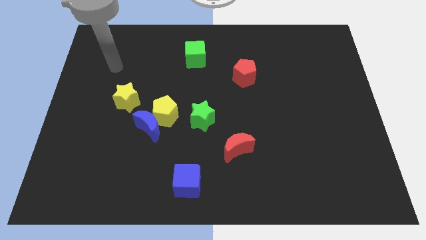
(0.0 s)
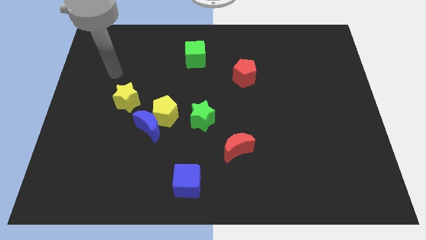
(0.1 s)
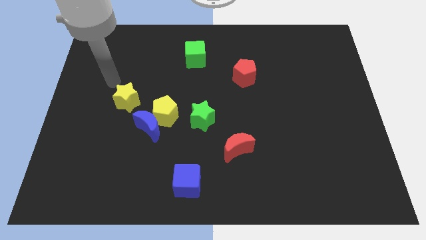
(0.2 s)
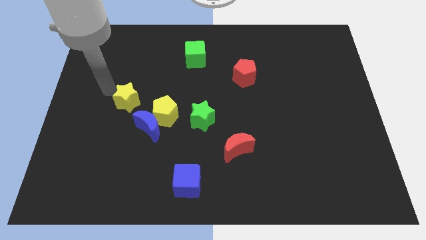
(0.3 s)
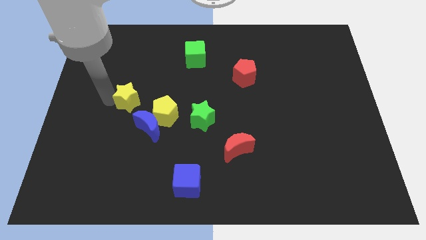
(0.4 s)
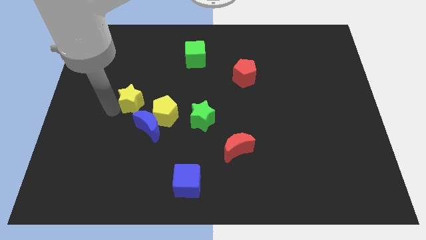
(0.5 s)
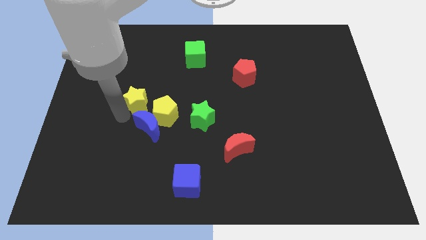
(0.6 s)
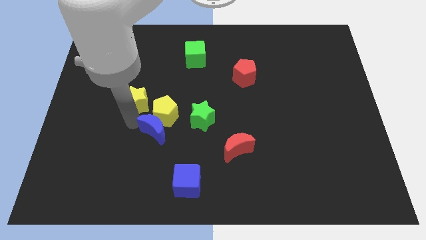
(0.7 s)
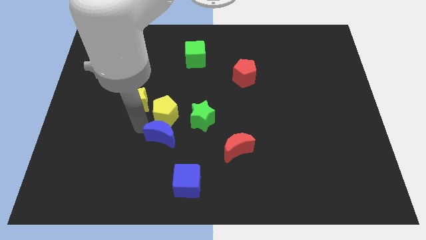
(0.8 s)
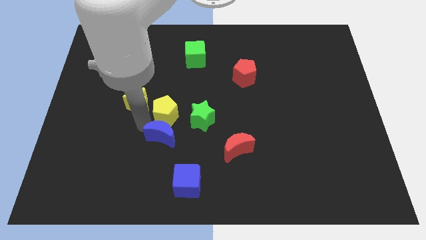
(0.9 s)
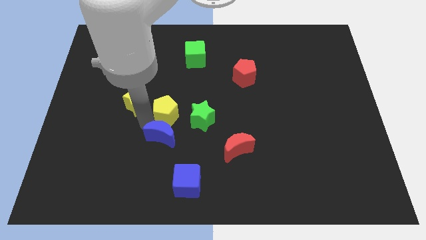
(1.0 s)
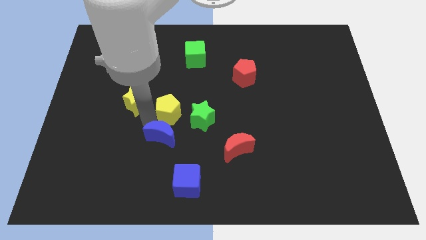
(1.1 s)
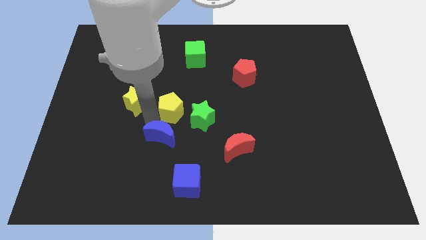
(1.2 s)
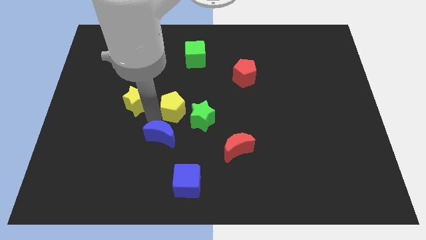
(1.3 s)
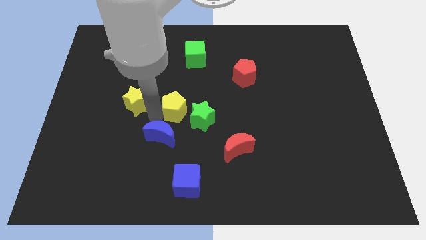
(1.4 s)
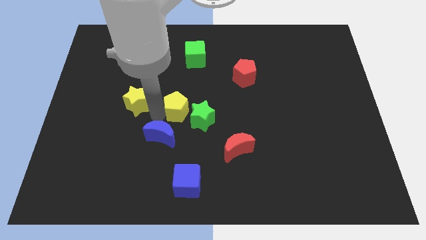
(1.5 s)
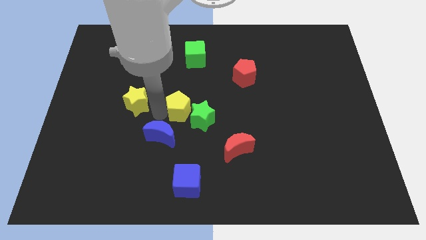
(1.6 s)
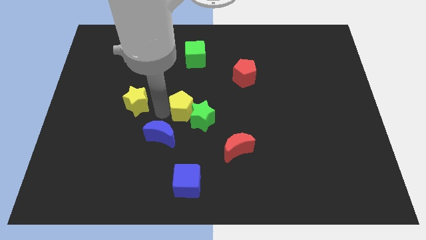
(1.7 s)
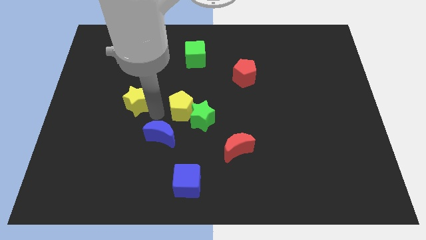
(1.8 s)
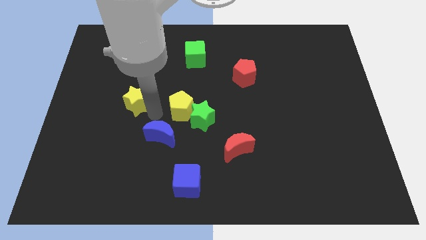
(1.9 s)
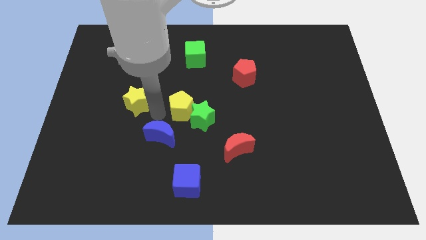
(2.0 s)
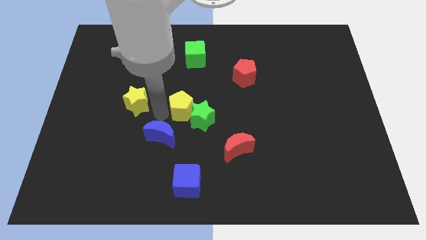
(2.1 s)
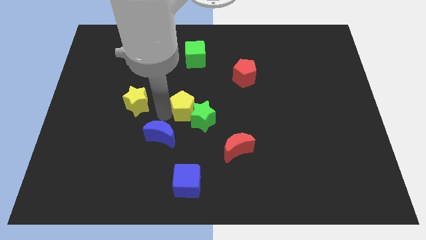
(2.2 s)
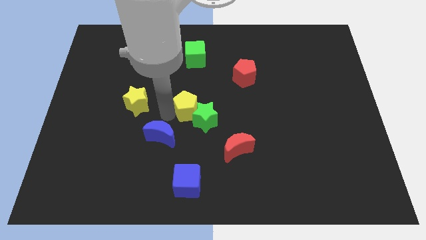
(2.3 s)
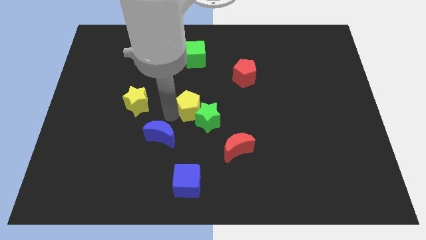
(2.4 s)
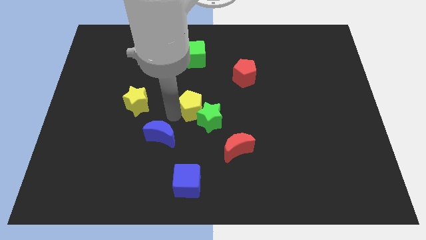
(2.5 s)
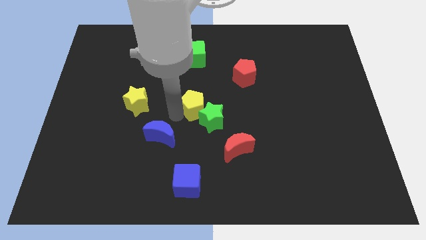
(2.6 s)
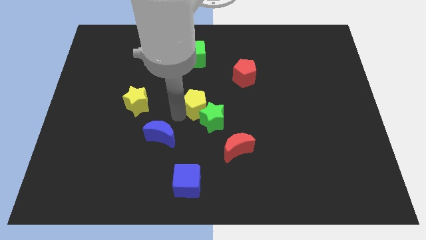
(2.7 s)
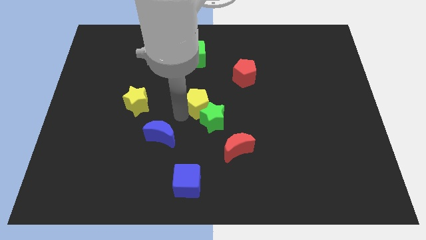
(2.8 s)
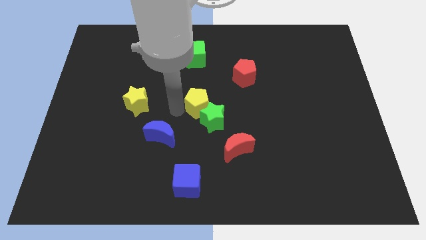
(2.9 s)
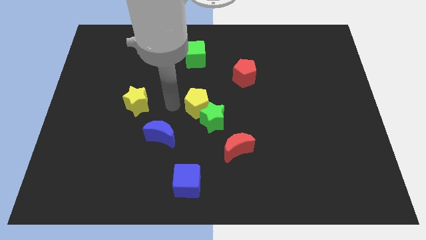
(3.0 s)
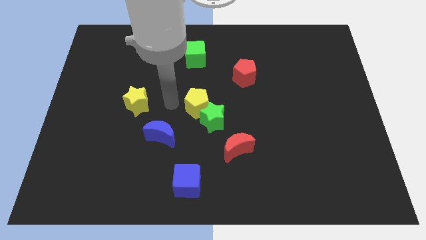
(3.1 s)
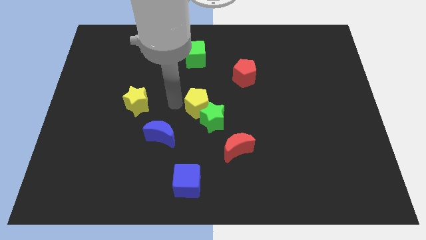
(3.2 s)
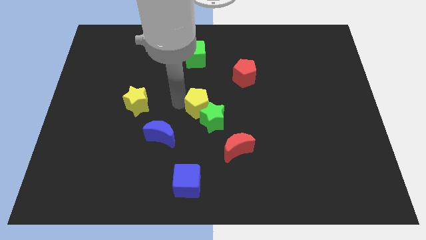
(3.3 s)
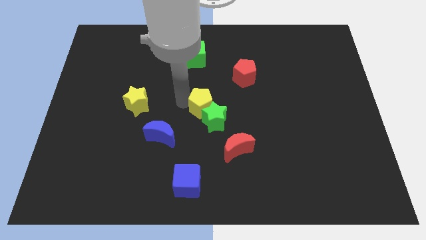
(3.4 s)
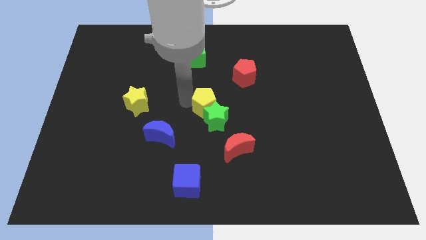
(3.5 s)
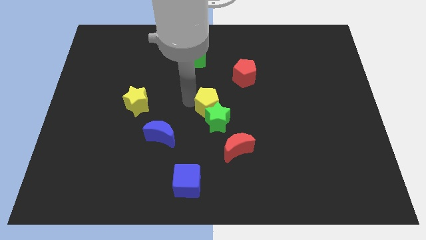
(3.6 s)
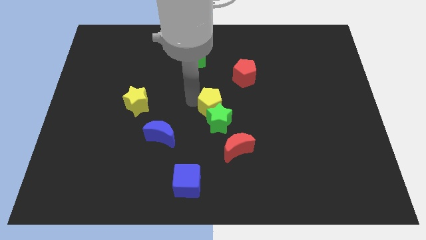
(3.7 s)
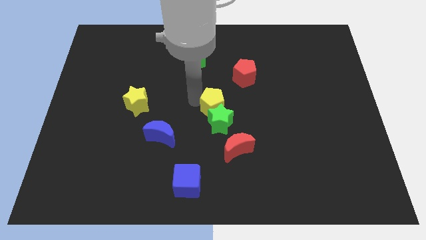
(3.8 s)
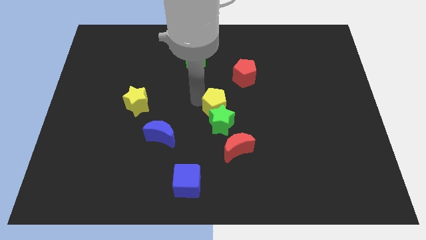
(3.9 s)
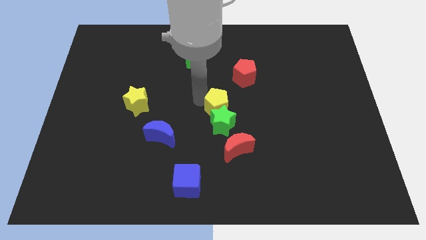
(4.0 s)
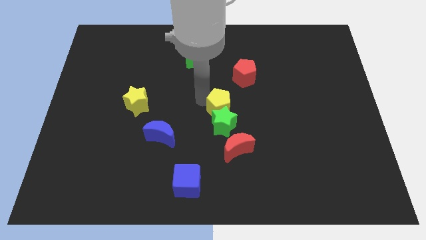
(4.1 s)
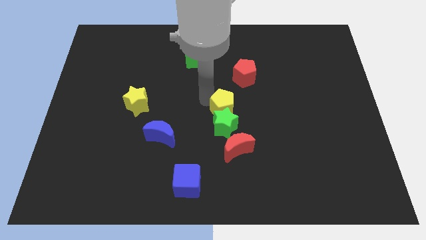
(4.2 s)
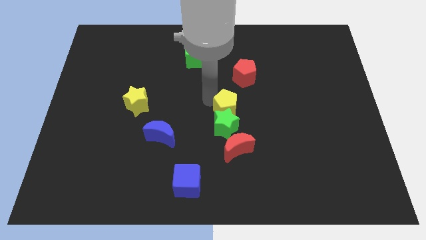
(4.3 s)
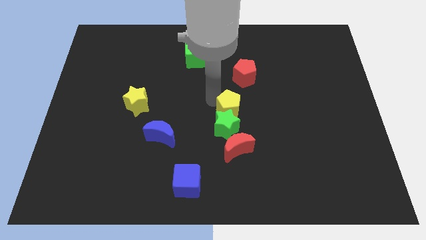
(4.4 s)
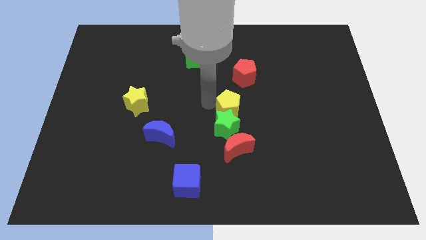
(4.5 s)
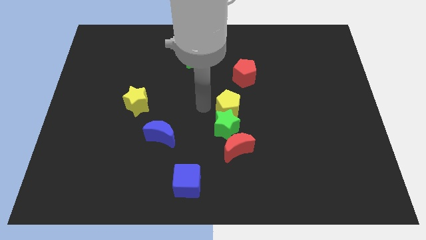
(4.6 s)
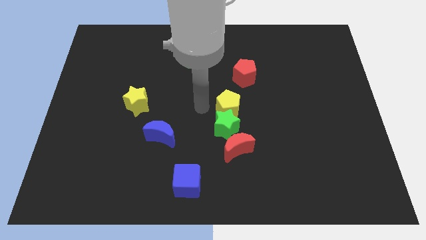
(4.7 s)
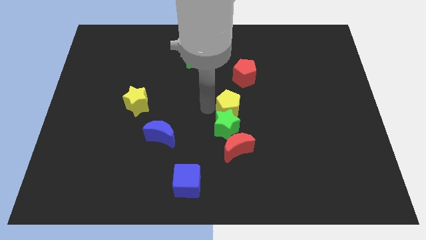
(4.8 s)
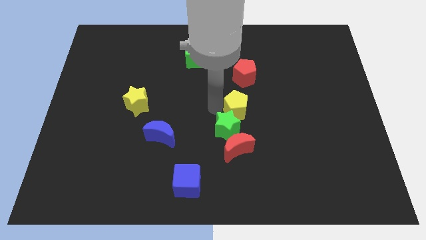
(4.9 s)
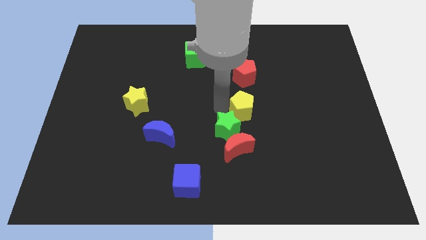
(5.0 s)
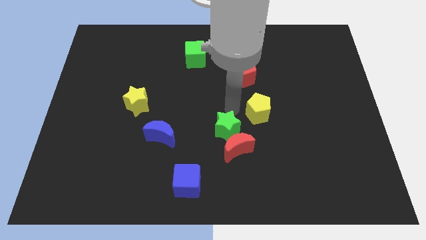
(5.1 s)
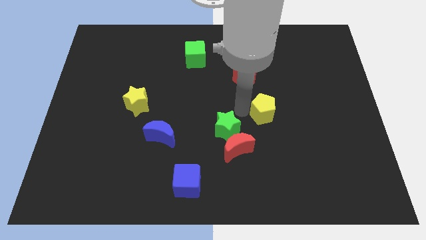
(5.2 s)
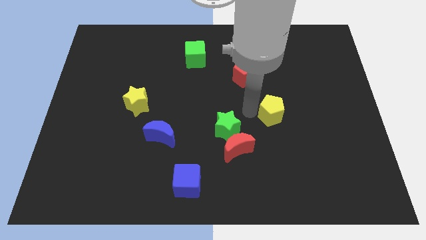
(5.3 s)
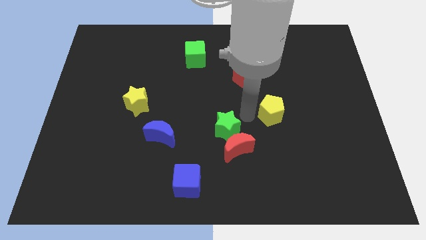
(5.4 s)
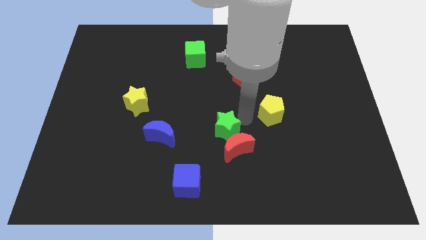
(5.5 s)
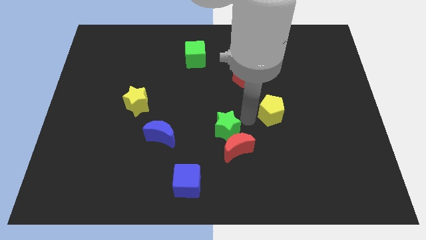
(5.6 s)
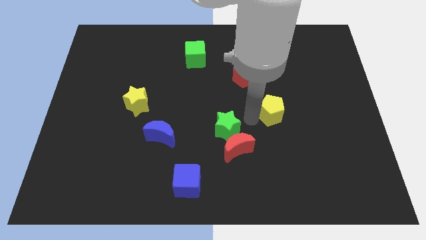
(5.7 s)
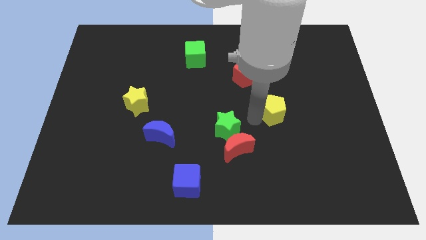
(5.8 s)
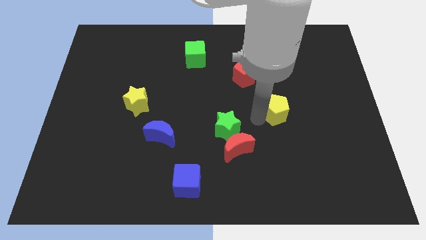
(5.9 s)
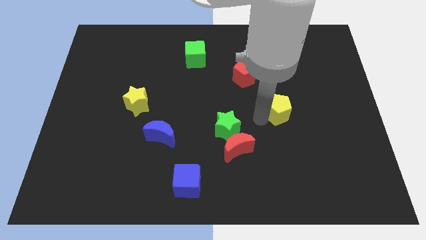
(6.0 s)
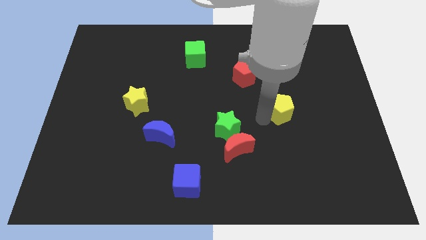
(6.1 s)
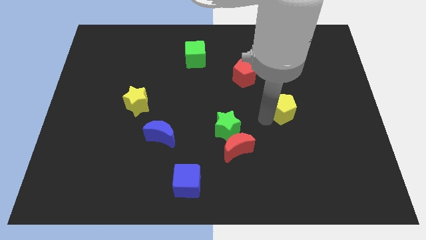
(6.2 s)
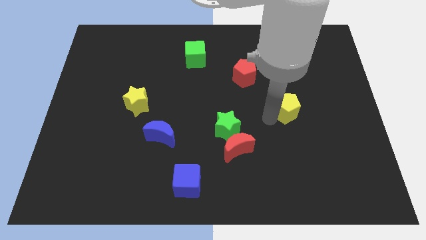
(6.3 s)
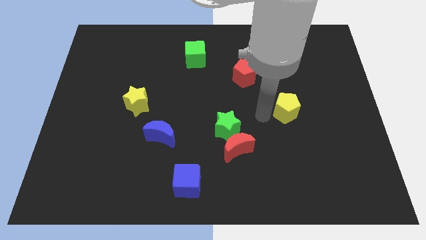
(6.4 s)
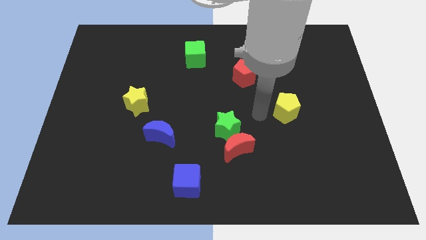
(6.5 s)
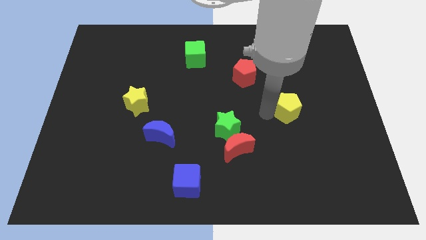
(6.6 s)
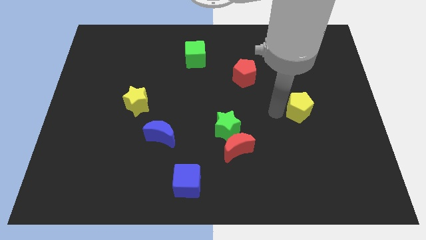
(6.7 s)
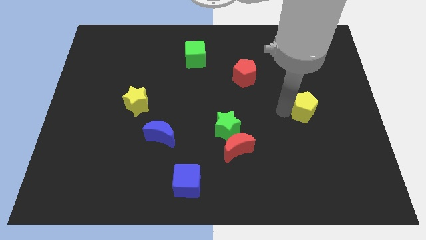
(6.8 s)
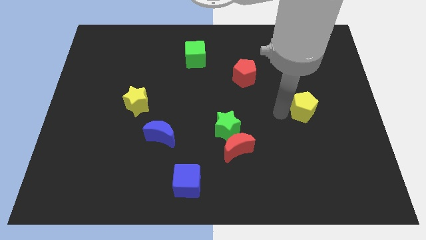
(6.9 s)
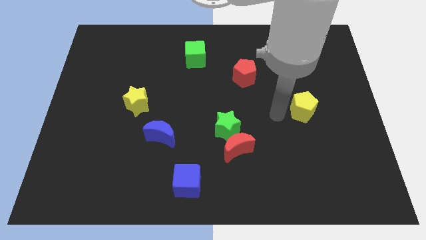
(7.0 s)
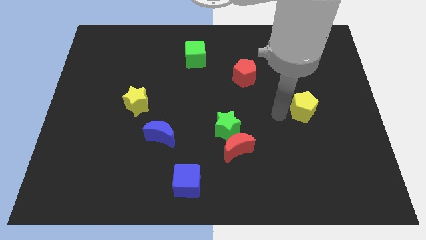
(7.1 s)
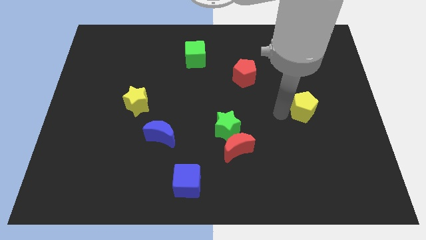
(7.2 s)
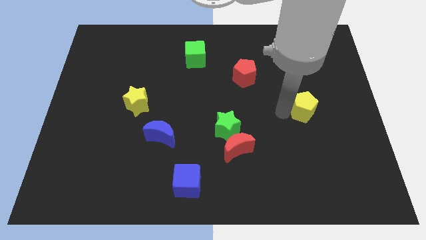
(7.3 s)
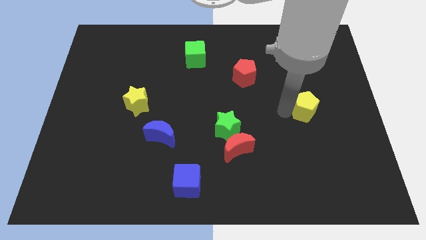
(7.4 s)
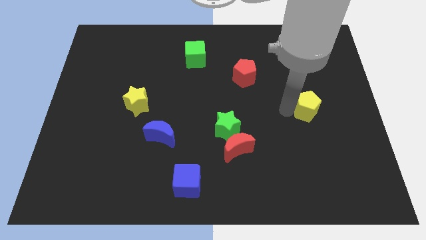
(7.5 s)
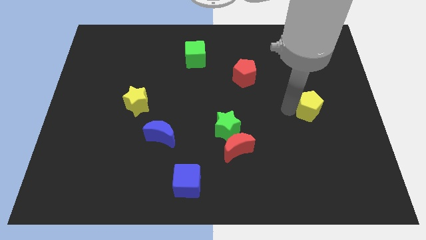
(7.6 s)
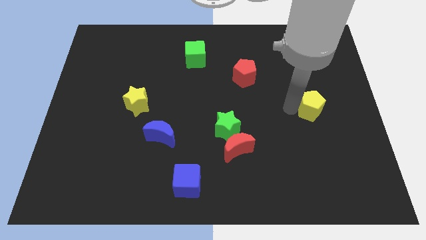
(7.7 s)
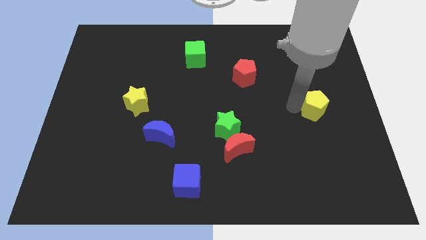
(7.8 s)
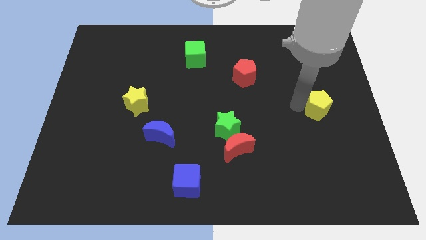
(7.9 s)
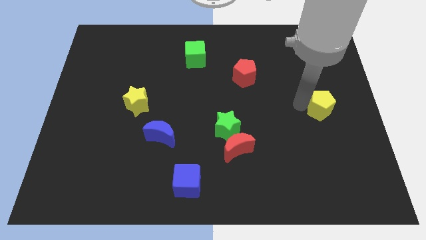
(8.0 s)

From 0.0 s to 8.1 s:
move the yellow pentagon to the right side of the board
